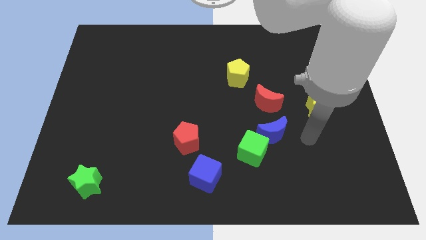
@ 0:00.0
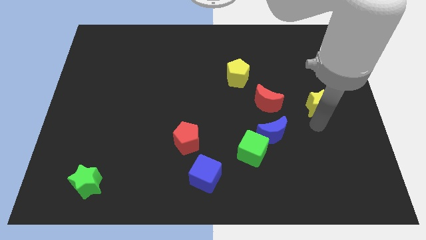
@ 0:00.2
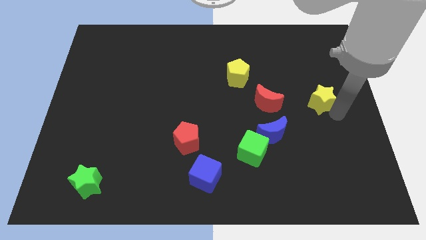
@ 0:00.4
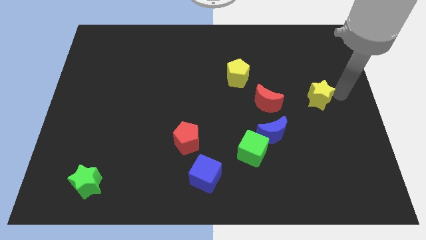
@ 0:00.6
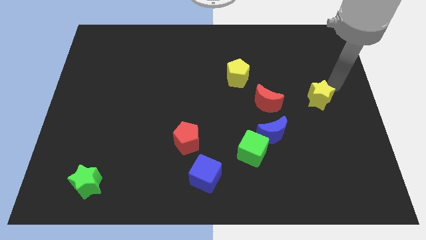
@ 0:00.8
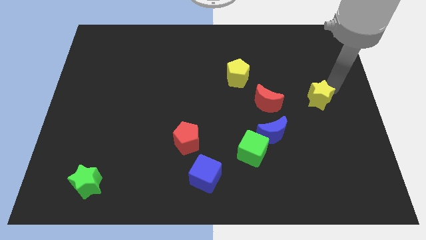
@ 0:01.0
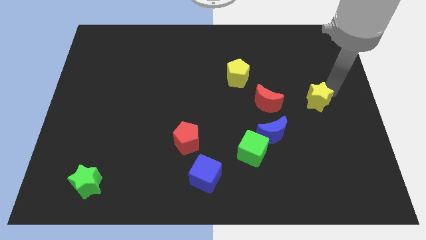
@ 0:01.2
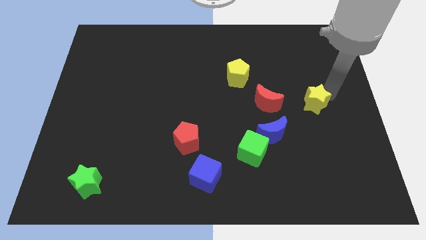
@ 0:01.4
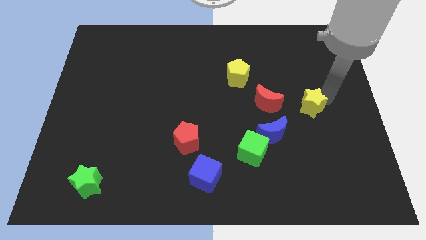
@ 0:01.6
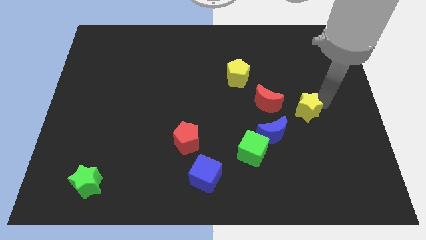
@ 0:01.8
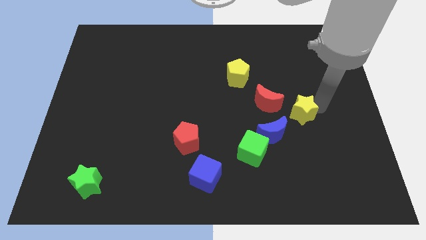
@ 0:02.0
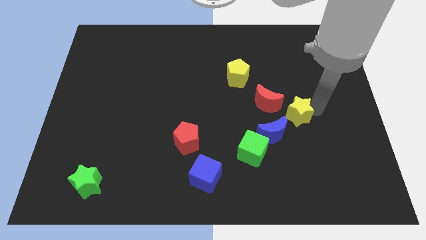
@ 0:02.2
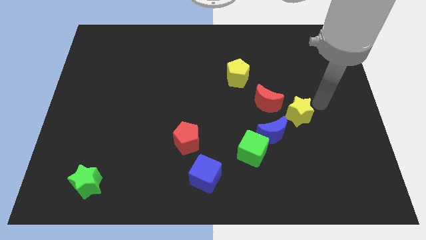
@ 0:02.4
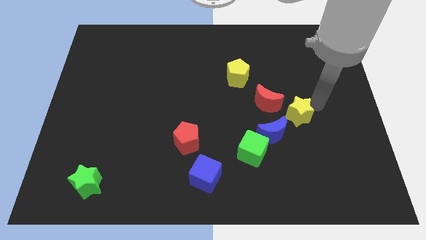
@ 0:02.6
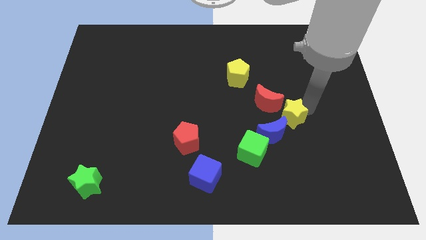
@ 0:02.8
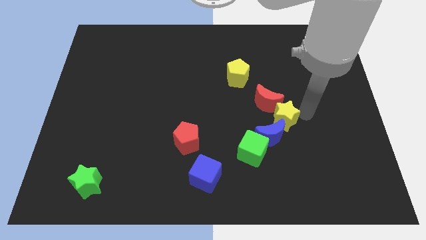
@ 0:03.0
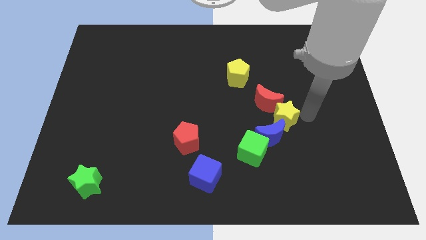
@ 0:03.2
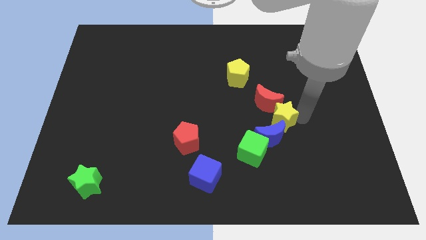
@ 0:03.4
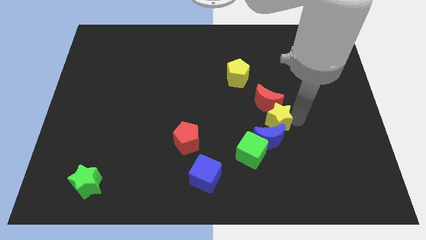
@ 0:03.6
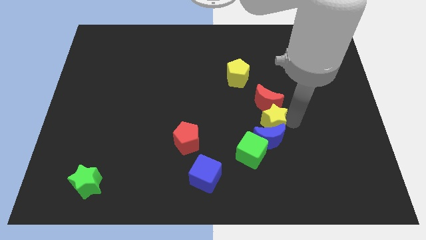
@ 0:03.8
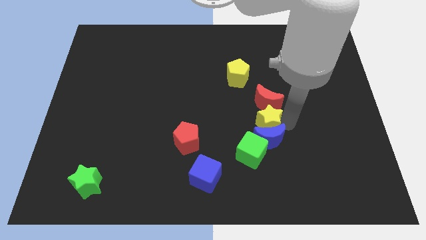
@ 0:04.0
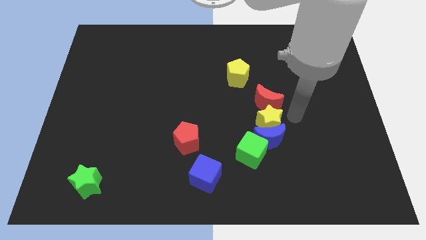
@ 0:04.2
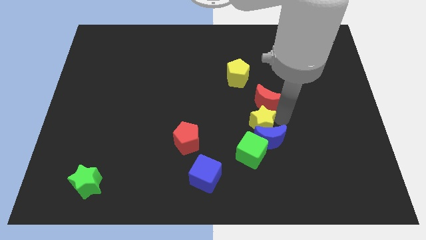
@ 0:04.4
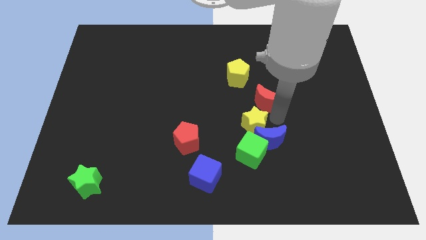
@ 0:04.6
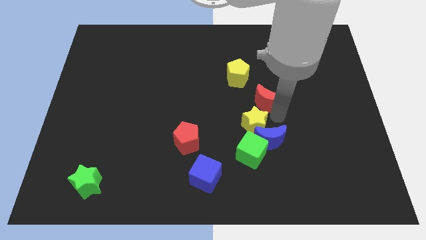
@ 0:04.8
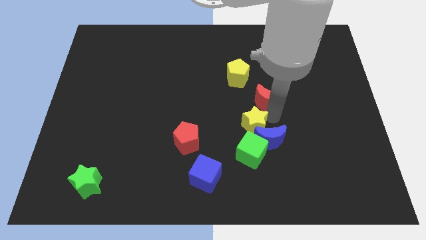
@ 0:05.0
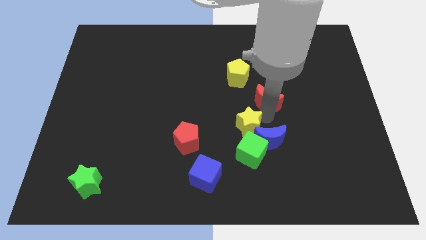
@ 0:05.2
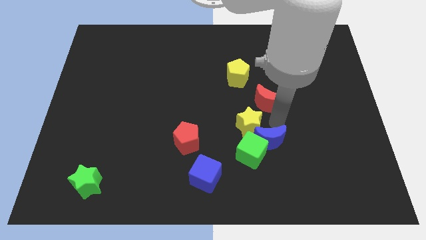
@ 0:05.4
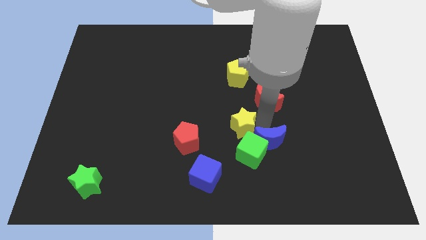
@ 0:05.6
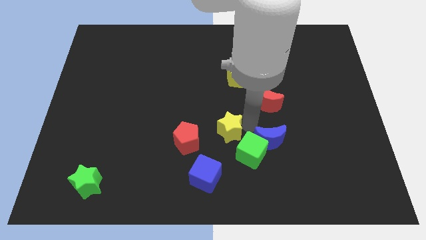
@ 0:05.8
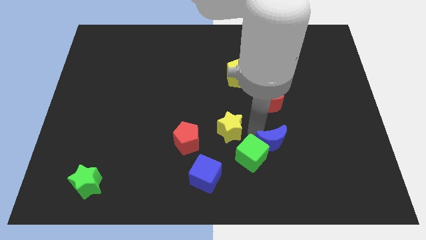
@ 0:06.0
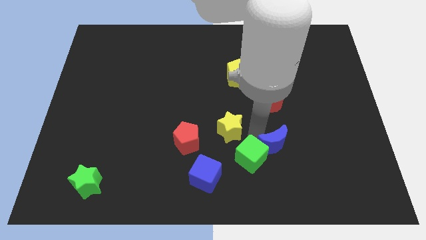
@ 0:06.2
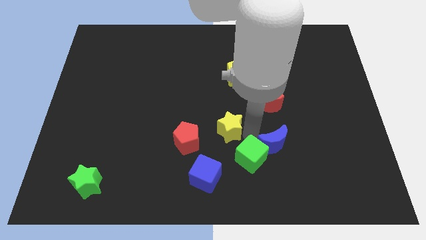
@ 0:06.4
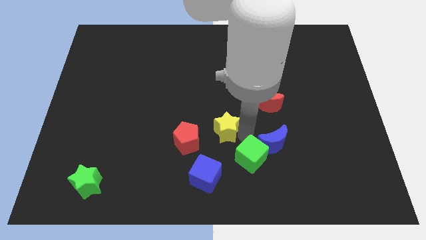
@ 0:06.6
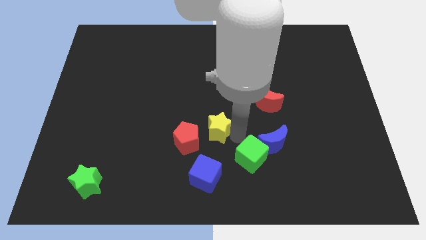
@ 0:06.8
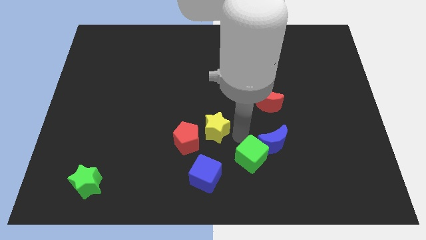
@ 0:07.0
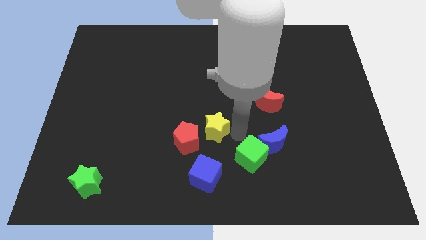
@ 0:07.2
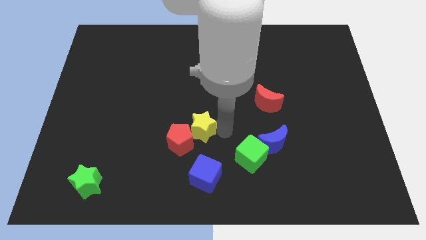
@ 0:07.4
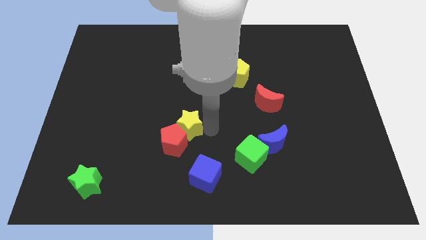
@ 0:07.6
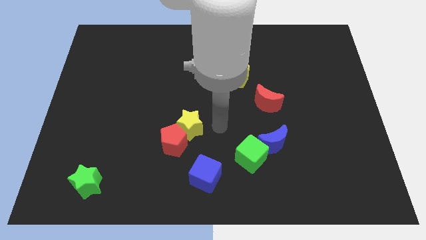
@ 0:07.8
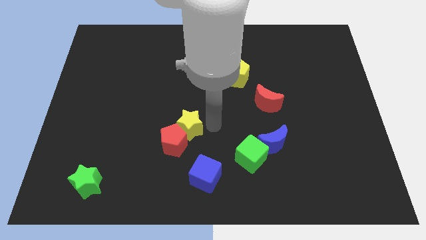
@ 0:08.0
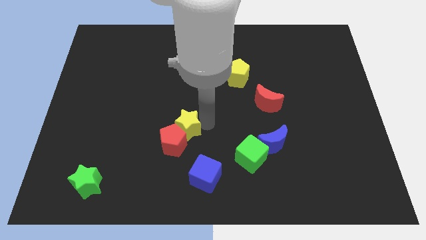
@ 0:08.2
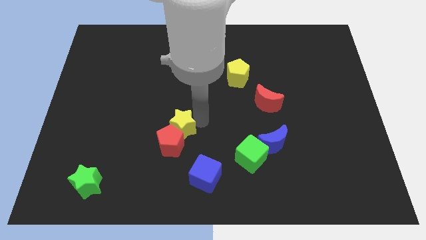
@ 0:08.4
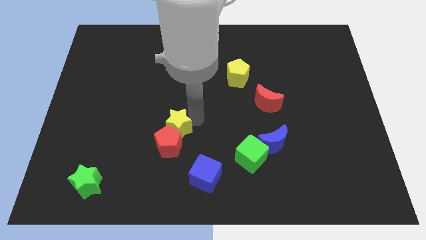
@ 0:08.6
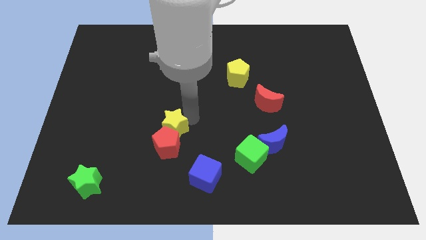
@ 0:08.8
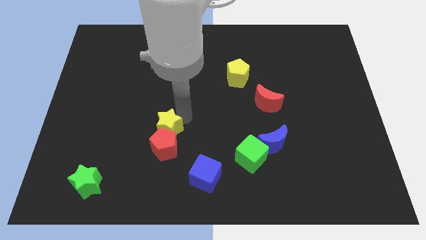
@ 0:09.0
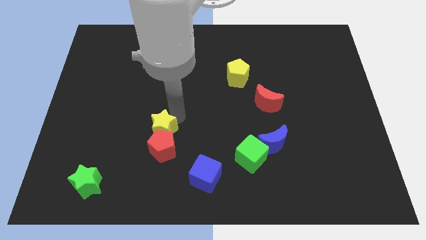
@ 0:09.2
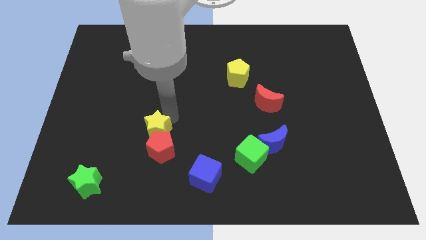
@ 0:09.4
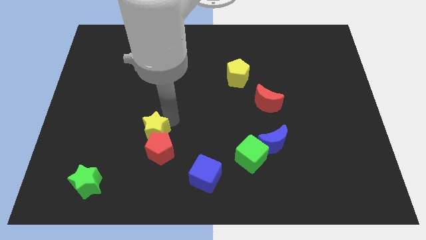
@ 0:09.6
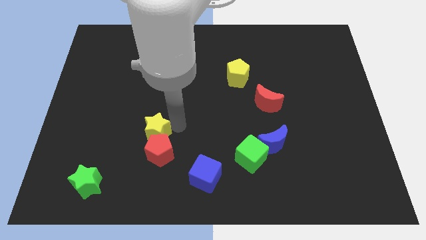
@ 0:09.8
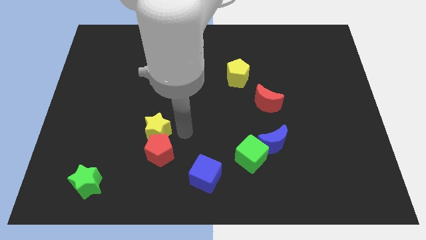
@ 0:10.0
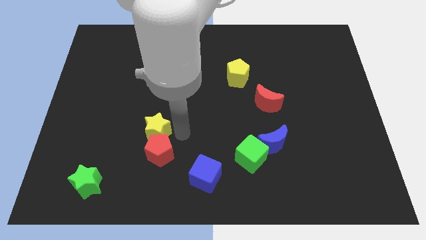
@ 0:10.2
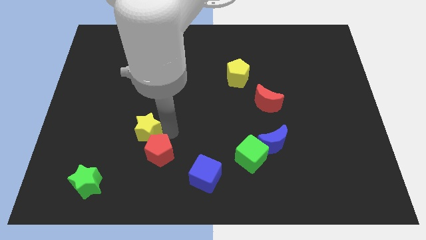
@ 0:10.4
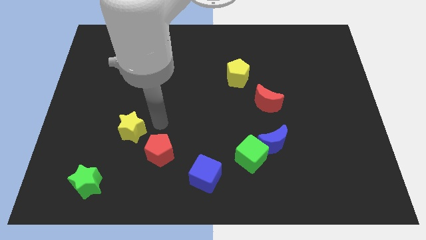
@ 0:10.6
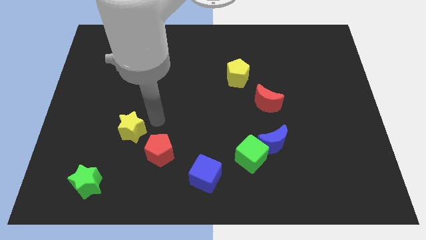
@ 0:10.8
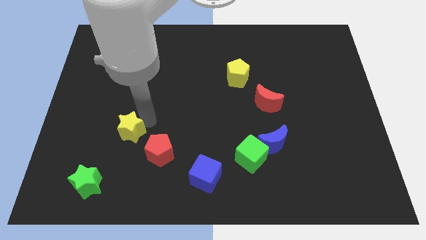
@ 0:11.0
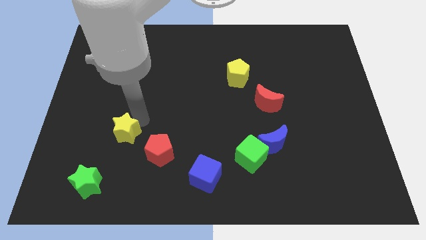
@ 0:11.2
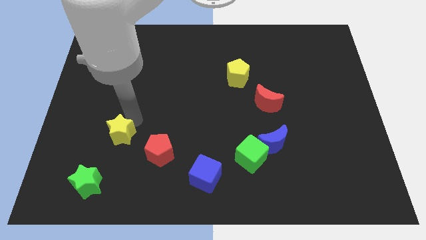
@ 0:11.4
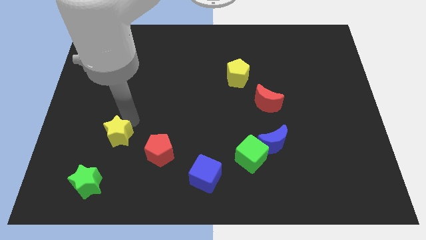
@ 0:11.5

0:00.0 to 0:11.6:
put the yellow star to the top of the green star

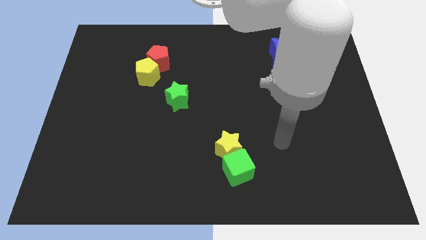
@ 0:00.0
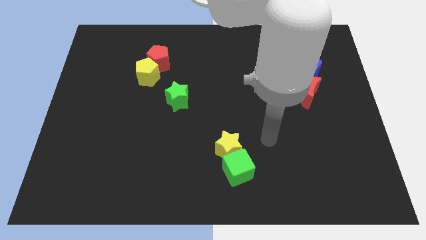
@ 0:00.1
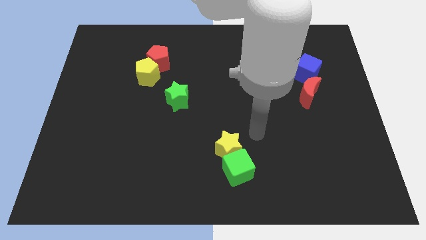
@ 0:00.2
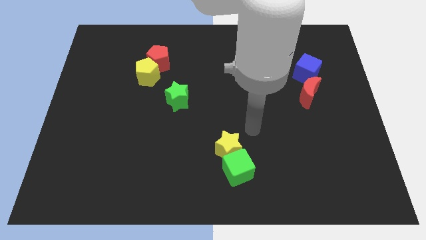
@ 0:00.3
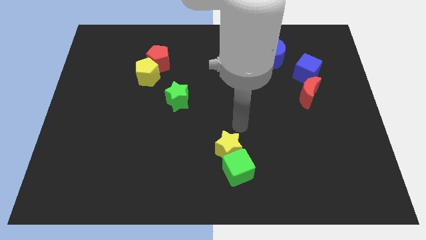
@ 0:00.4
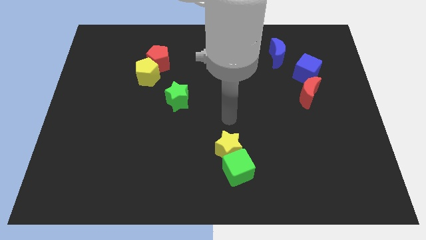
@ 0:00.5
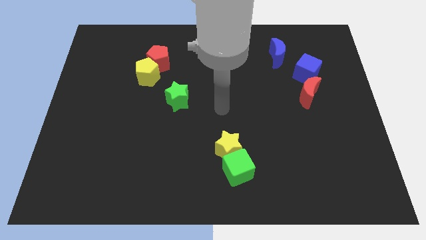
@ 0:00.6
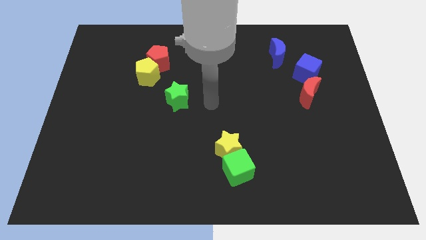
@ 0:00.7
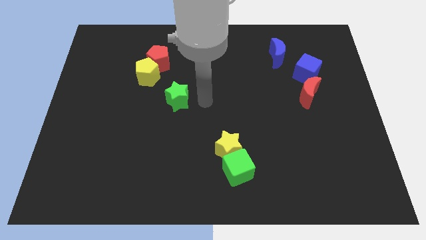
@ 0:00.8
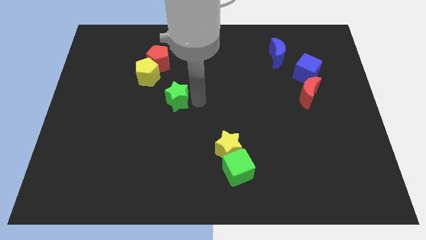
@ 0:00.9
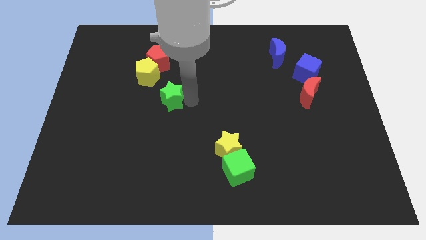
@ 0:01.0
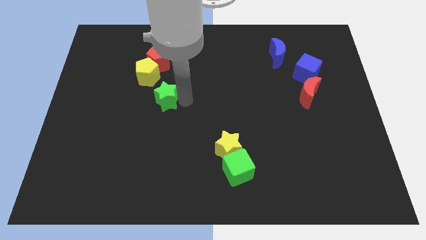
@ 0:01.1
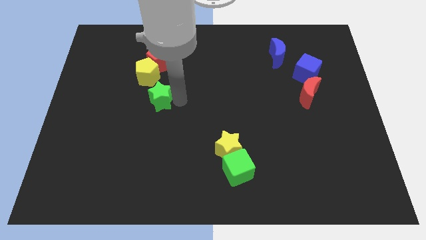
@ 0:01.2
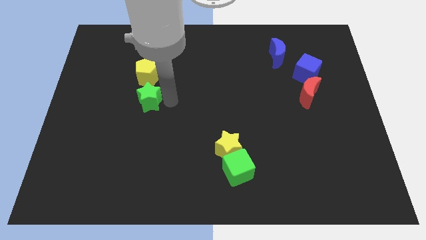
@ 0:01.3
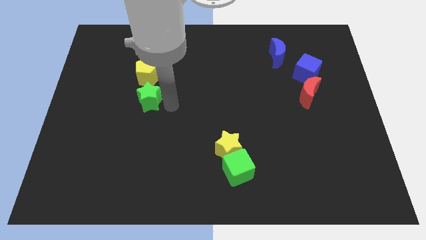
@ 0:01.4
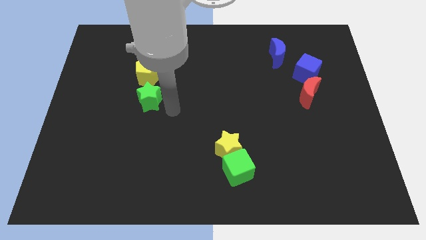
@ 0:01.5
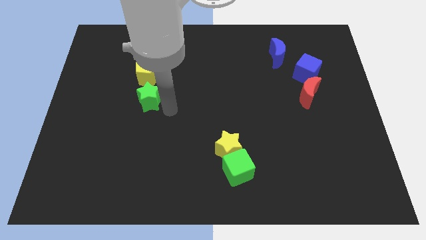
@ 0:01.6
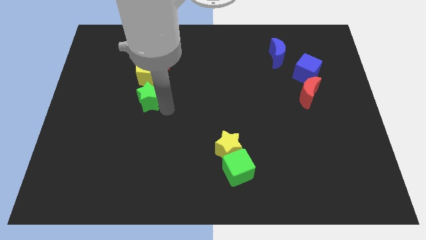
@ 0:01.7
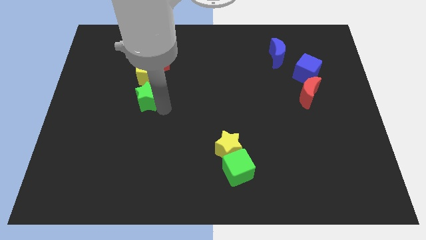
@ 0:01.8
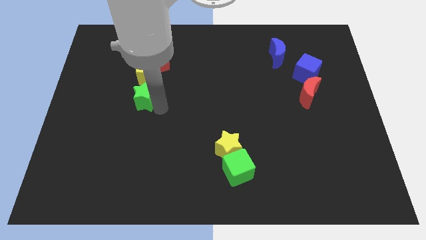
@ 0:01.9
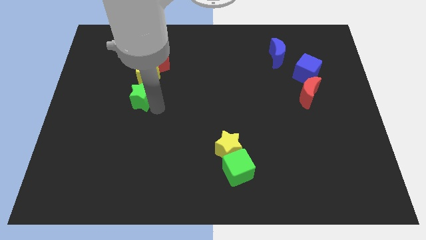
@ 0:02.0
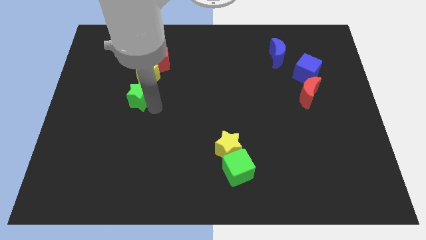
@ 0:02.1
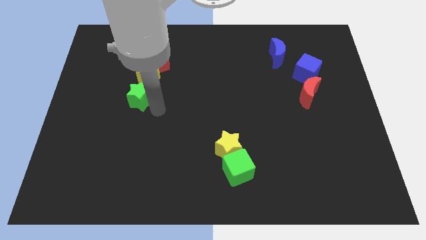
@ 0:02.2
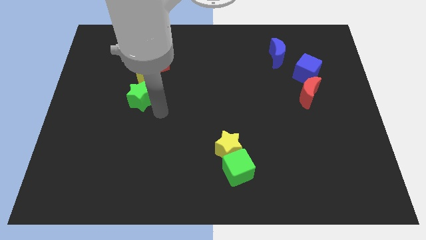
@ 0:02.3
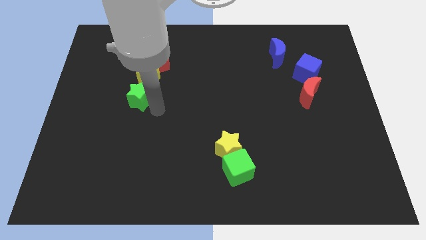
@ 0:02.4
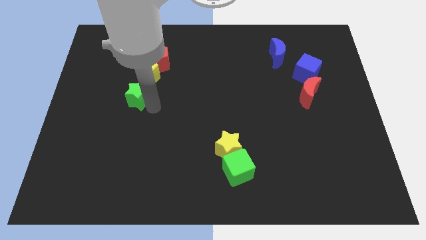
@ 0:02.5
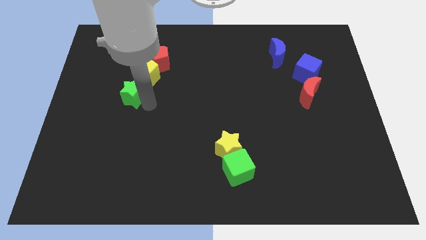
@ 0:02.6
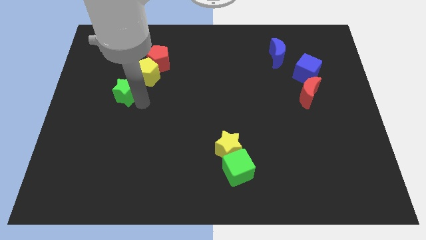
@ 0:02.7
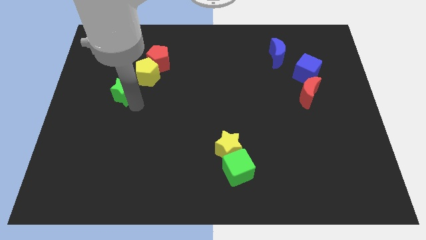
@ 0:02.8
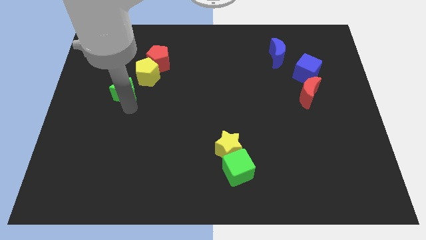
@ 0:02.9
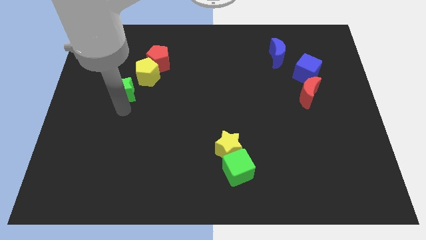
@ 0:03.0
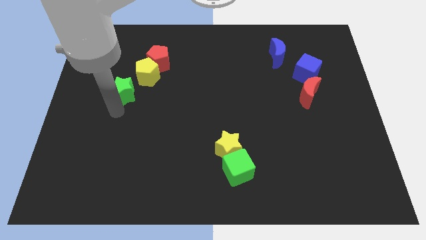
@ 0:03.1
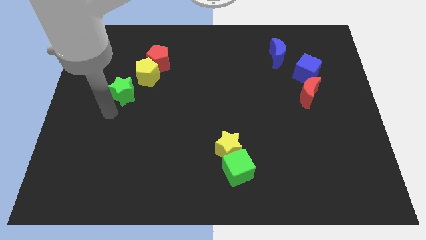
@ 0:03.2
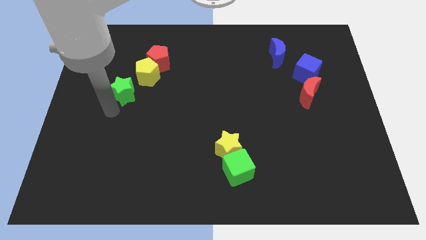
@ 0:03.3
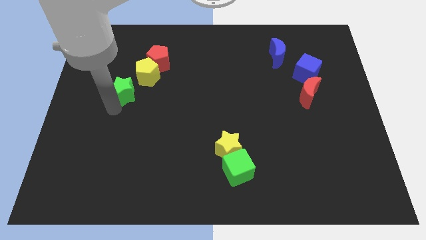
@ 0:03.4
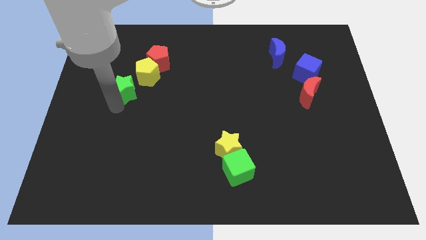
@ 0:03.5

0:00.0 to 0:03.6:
push the green star to the bottom left of the red pentagon
